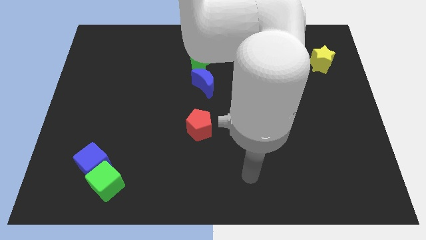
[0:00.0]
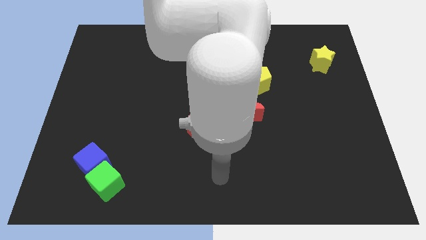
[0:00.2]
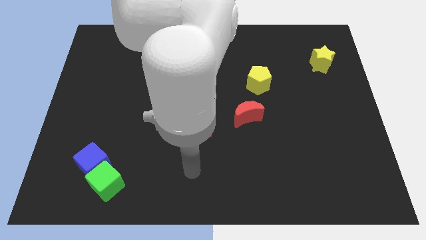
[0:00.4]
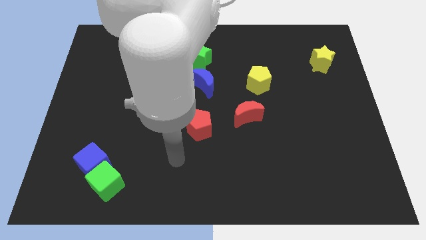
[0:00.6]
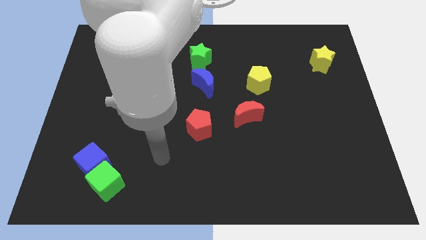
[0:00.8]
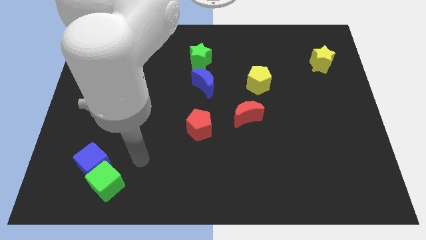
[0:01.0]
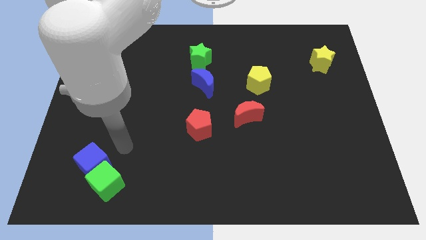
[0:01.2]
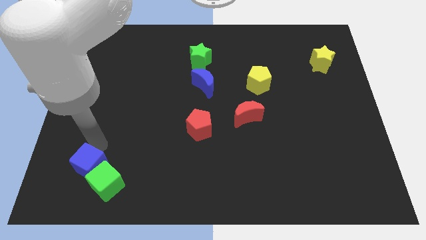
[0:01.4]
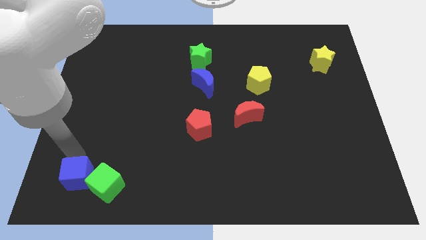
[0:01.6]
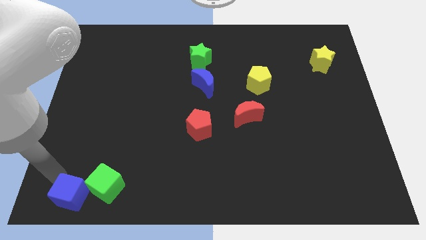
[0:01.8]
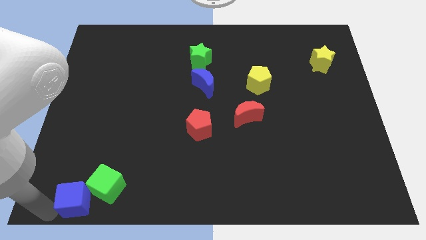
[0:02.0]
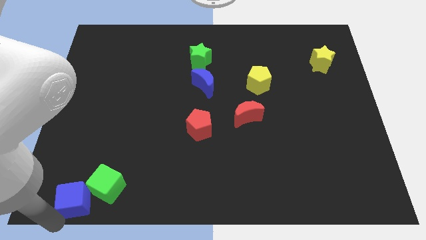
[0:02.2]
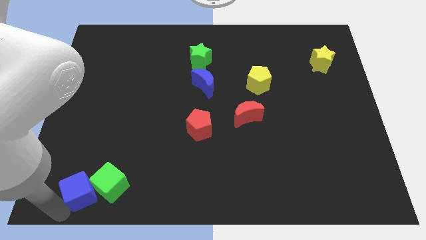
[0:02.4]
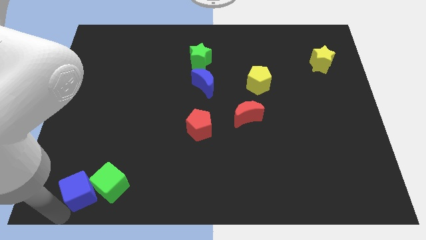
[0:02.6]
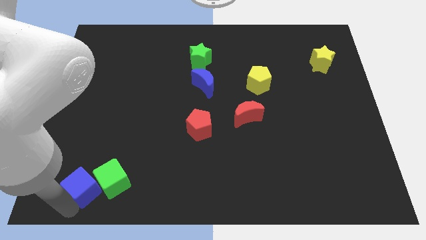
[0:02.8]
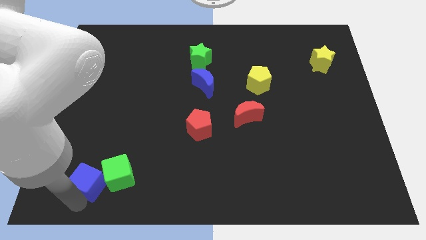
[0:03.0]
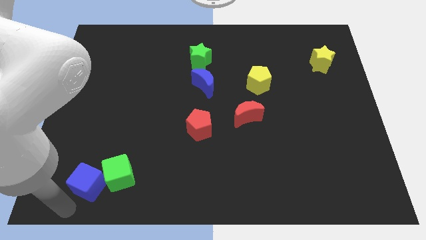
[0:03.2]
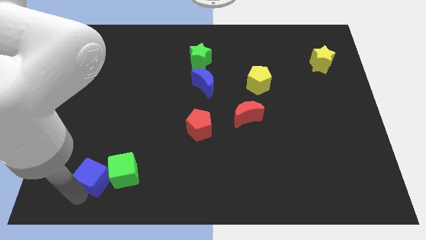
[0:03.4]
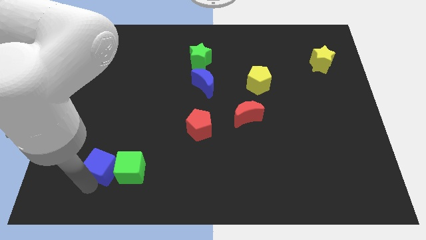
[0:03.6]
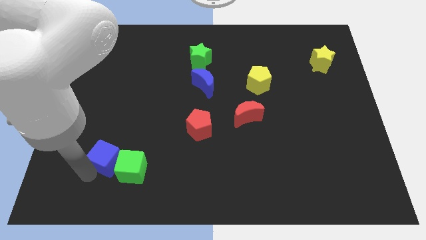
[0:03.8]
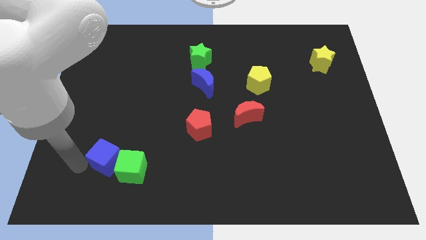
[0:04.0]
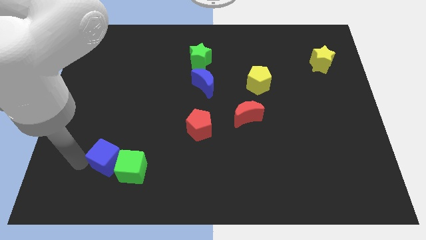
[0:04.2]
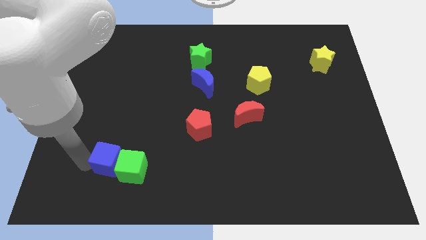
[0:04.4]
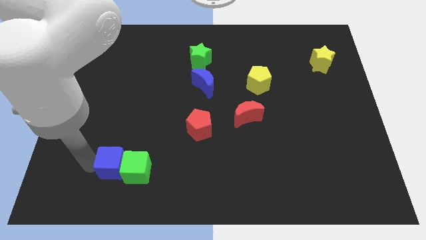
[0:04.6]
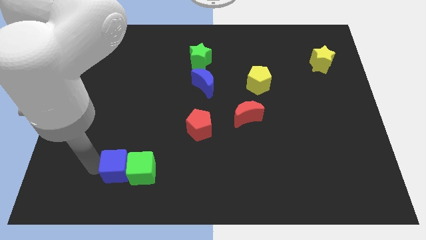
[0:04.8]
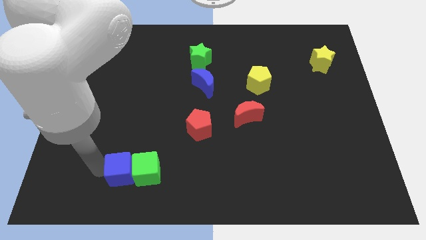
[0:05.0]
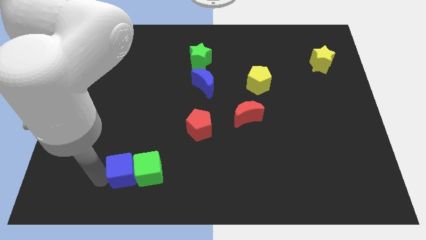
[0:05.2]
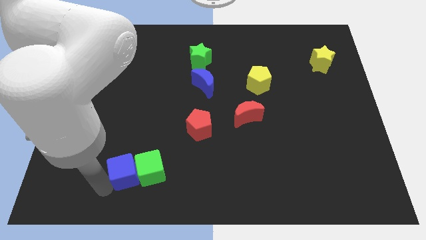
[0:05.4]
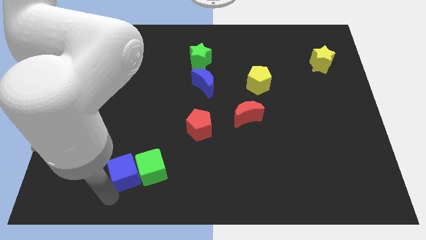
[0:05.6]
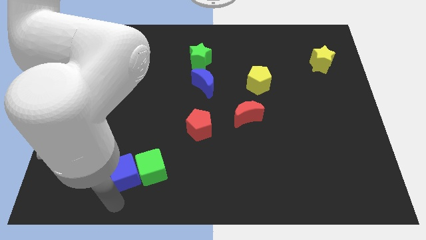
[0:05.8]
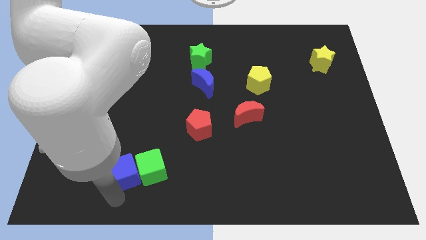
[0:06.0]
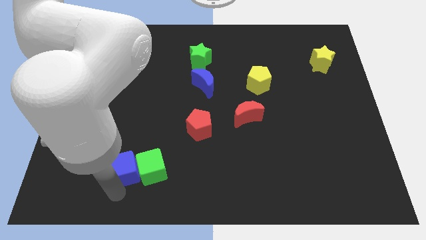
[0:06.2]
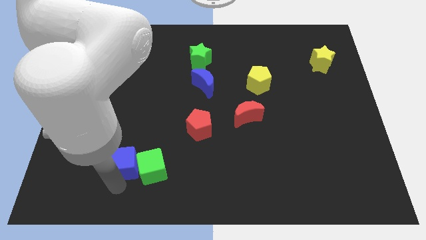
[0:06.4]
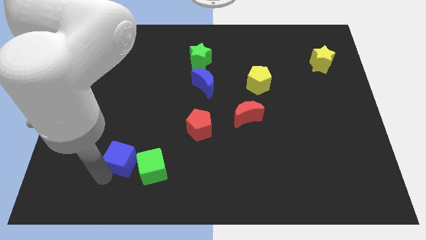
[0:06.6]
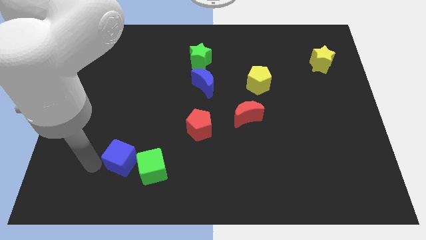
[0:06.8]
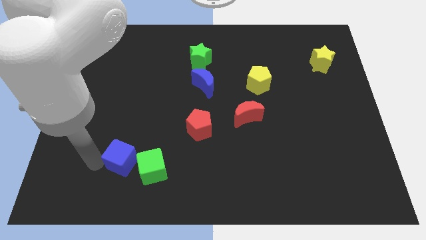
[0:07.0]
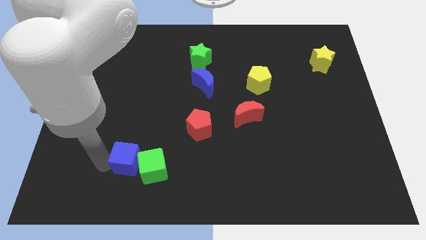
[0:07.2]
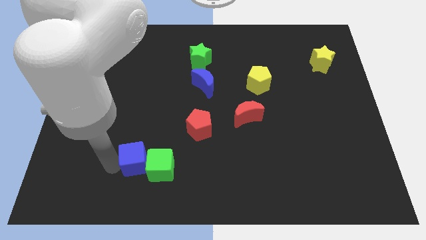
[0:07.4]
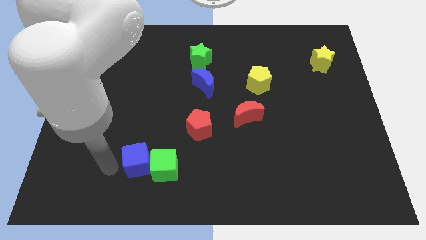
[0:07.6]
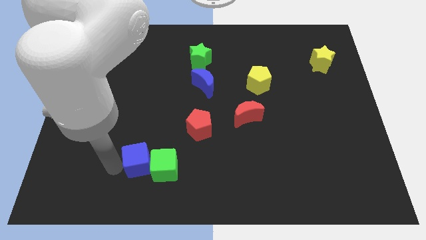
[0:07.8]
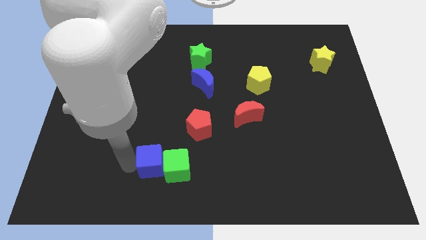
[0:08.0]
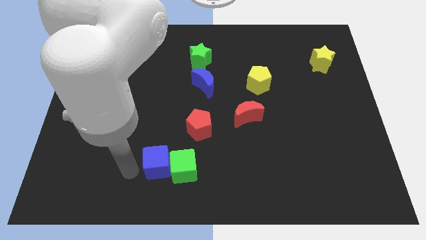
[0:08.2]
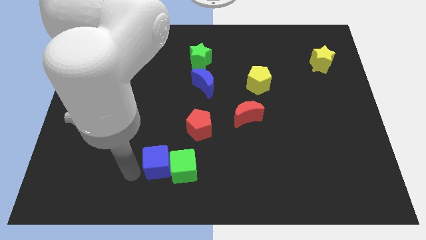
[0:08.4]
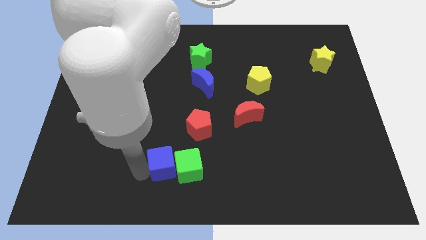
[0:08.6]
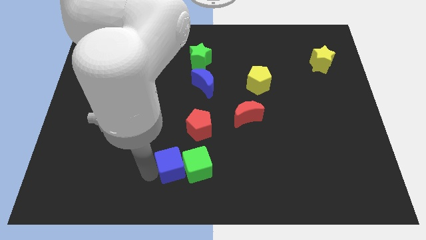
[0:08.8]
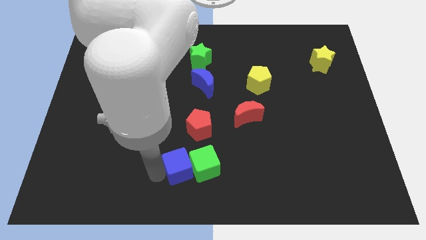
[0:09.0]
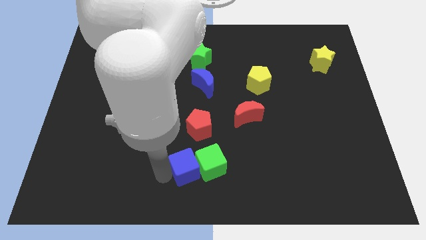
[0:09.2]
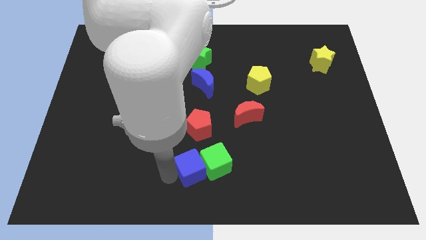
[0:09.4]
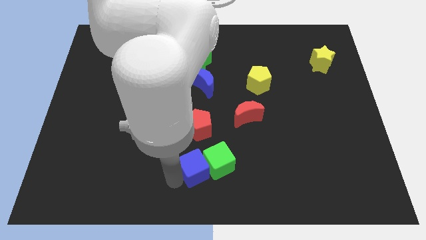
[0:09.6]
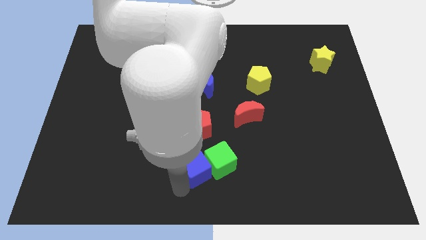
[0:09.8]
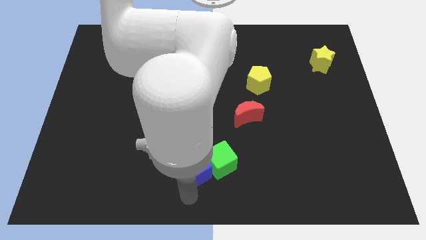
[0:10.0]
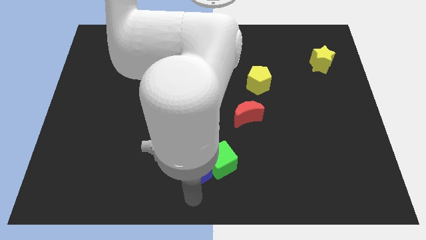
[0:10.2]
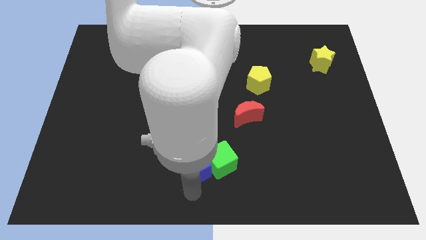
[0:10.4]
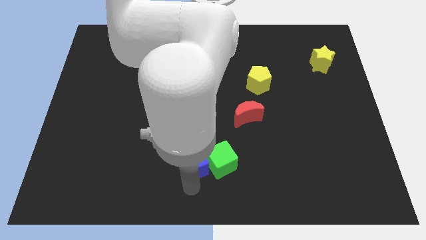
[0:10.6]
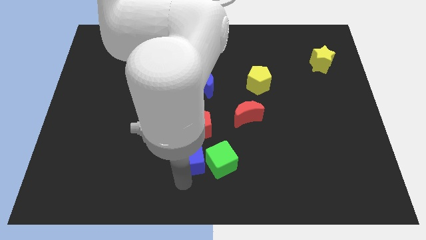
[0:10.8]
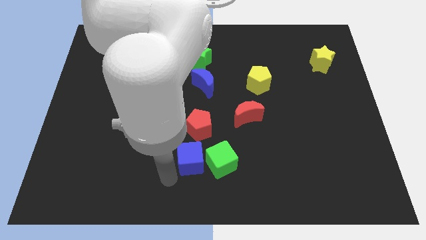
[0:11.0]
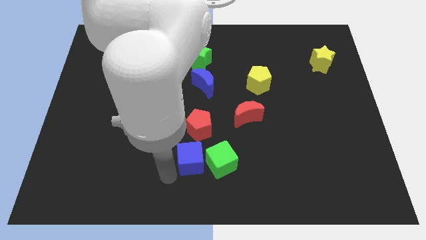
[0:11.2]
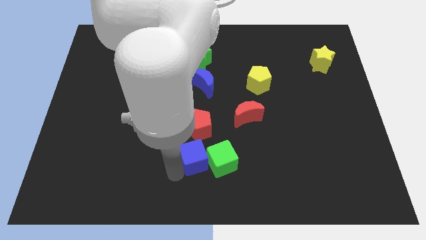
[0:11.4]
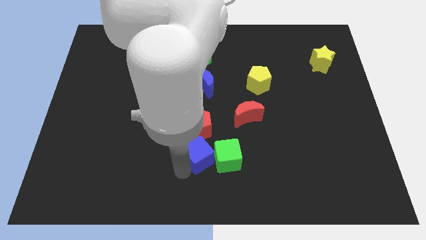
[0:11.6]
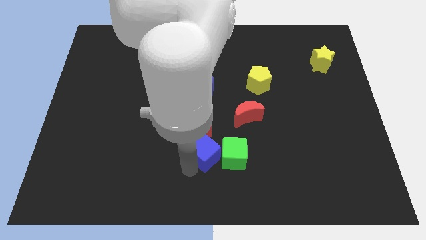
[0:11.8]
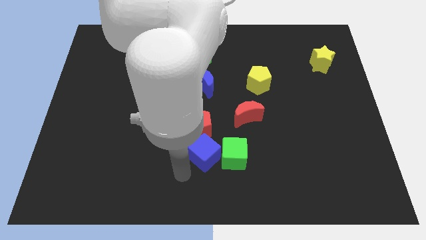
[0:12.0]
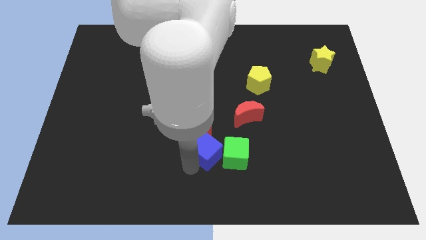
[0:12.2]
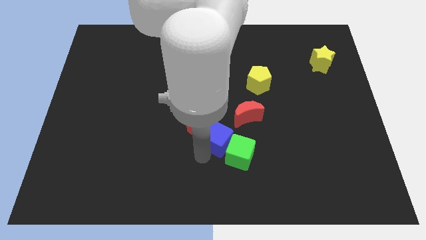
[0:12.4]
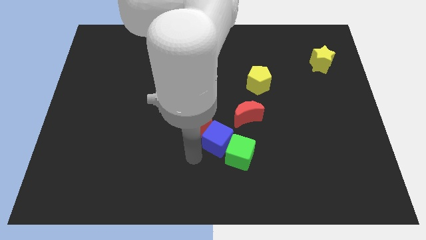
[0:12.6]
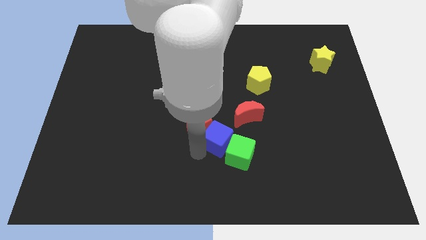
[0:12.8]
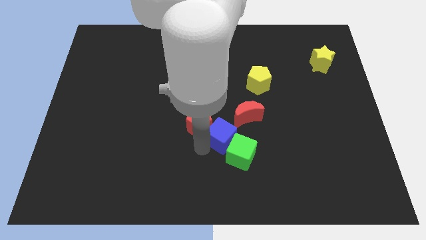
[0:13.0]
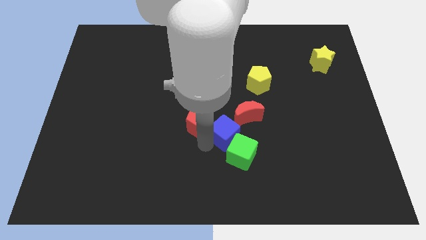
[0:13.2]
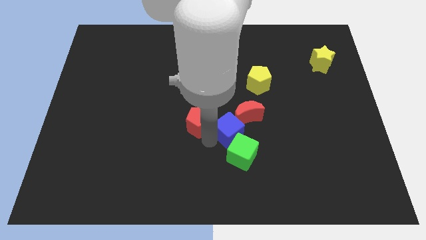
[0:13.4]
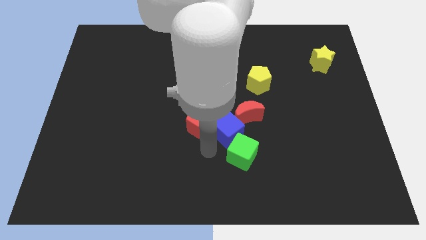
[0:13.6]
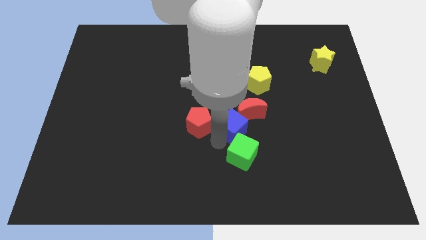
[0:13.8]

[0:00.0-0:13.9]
move the blue cube to the red moon
